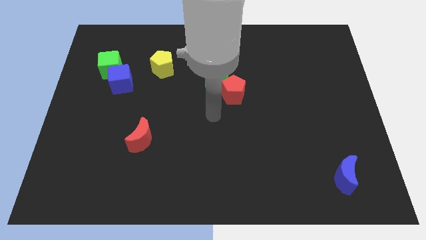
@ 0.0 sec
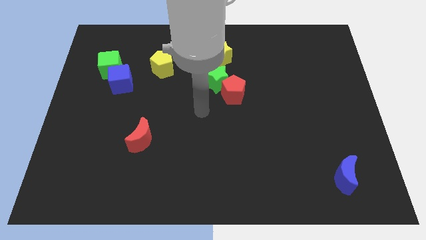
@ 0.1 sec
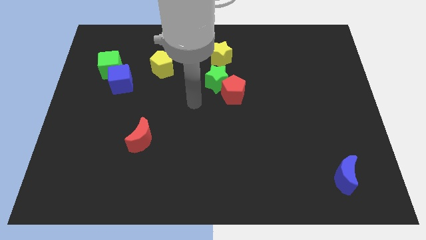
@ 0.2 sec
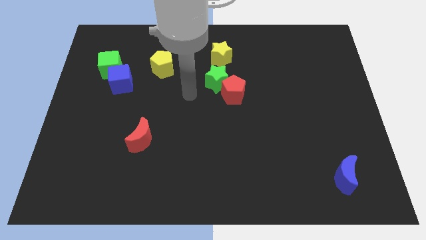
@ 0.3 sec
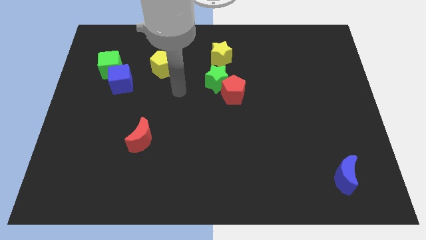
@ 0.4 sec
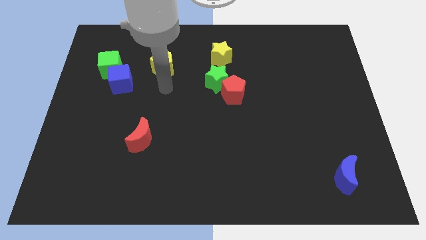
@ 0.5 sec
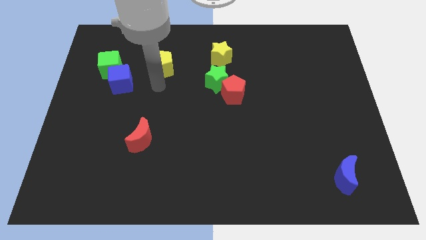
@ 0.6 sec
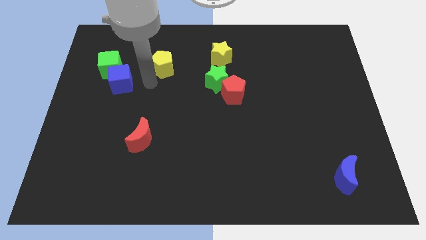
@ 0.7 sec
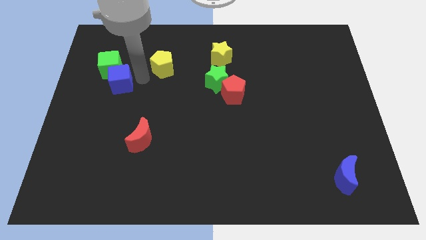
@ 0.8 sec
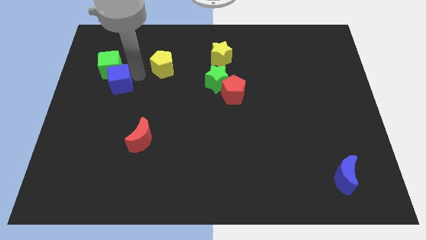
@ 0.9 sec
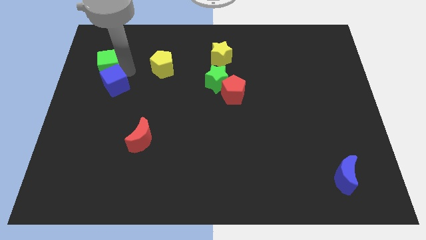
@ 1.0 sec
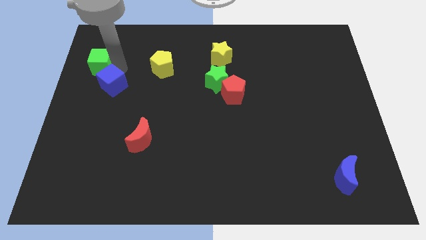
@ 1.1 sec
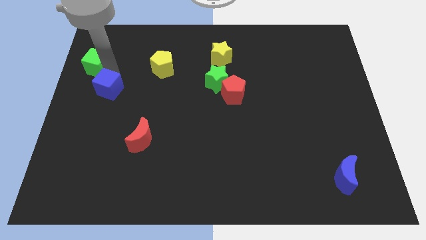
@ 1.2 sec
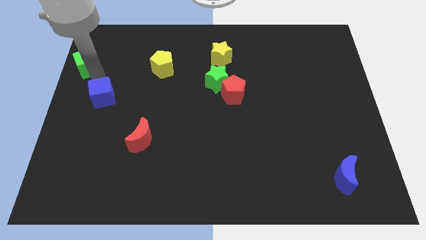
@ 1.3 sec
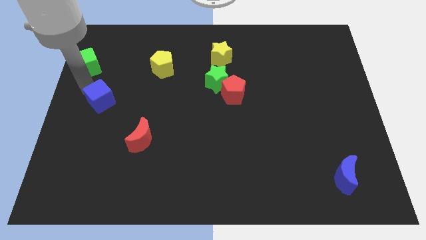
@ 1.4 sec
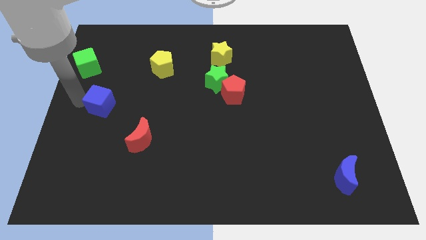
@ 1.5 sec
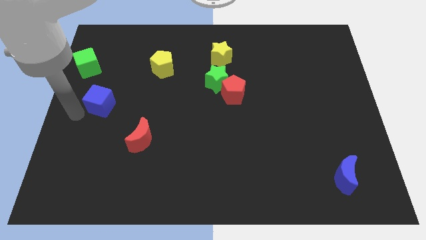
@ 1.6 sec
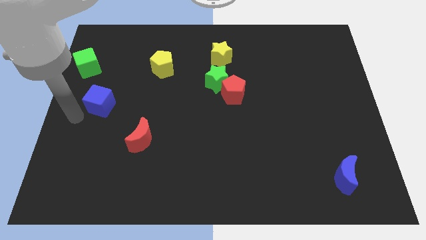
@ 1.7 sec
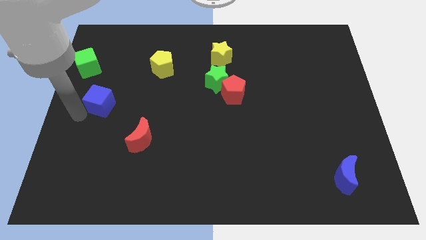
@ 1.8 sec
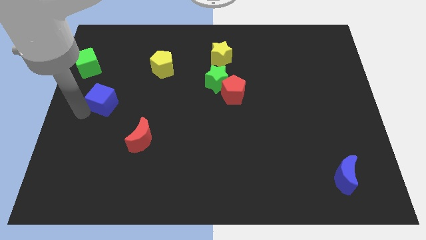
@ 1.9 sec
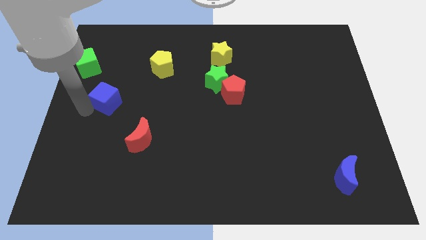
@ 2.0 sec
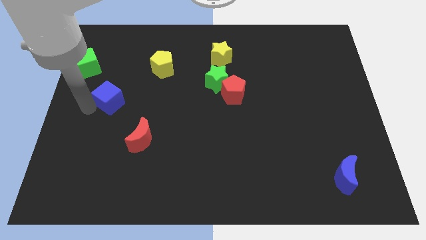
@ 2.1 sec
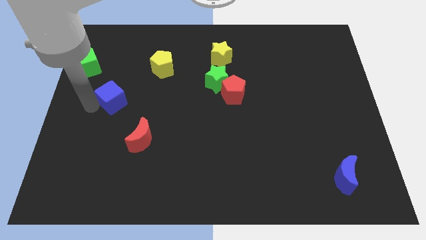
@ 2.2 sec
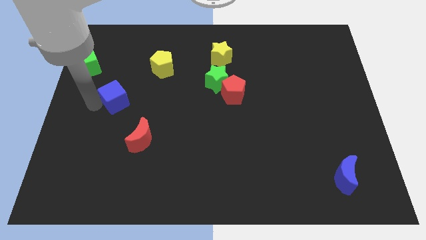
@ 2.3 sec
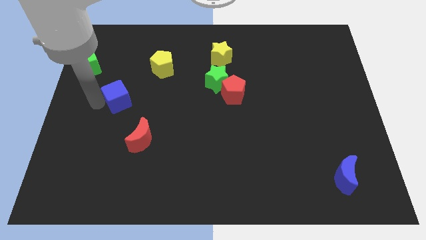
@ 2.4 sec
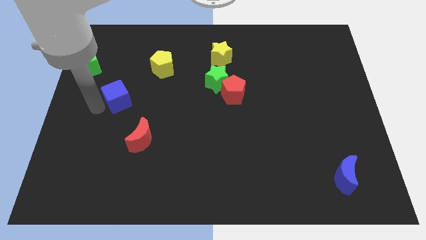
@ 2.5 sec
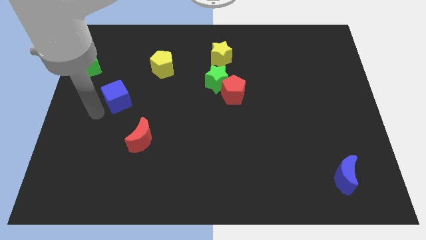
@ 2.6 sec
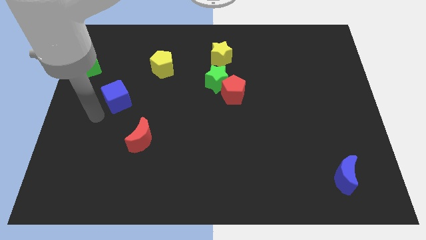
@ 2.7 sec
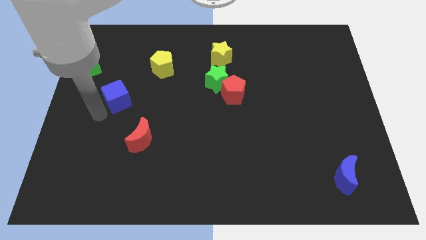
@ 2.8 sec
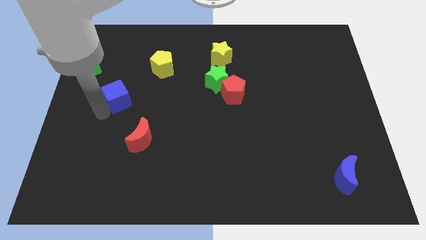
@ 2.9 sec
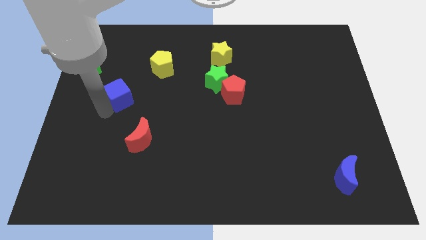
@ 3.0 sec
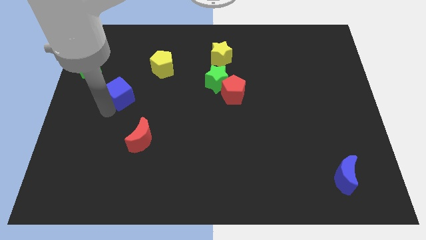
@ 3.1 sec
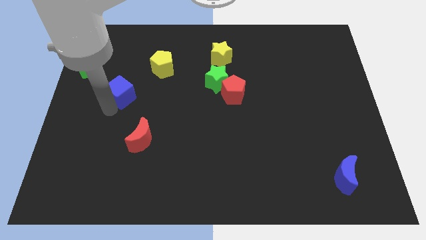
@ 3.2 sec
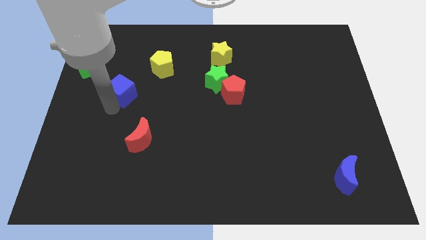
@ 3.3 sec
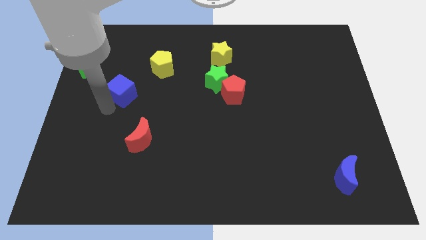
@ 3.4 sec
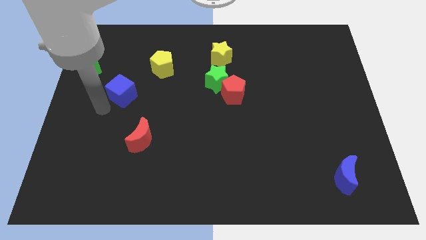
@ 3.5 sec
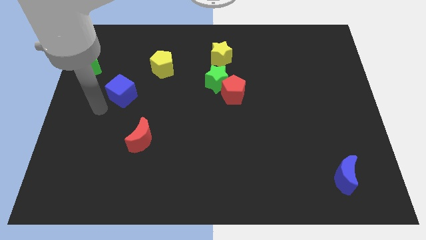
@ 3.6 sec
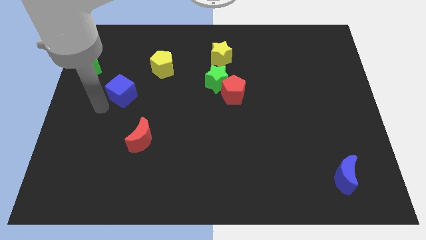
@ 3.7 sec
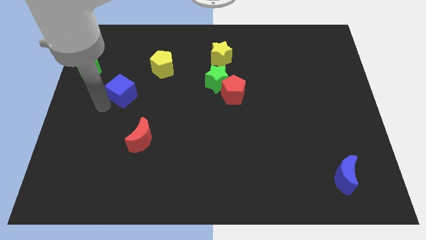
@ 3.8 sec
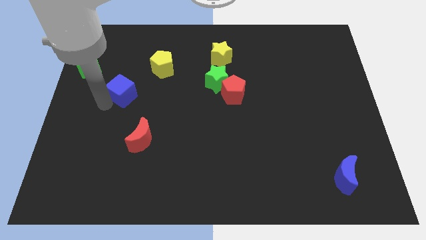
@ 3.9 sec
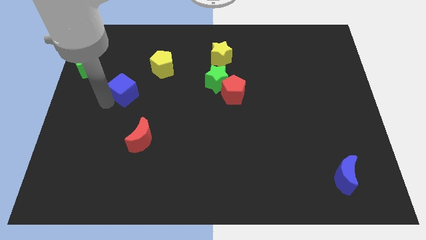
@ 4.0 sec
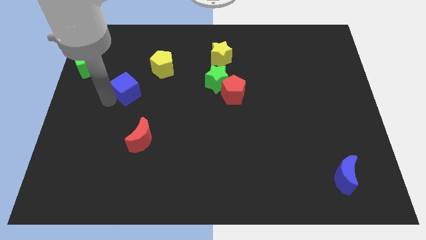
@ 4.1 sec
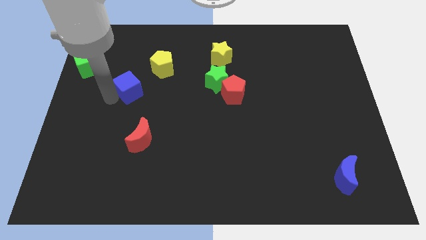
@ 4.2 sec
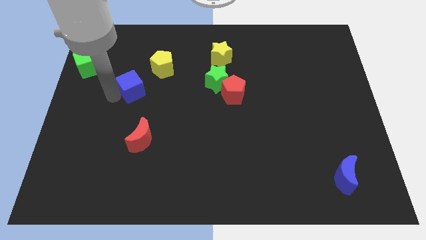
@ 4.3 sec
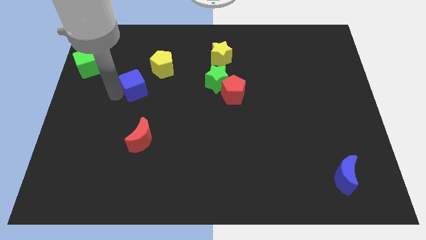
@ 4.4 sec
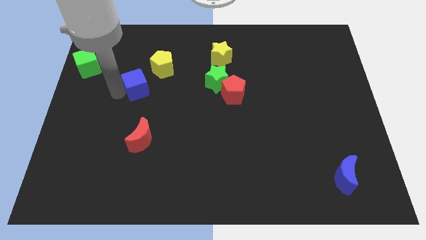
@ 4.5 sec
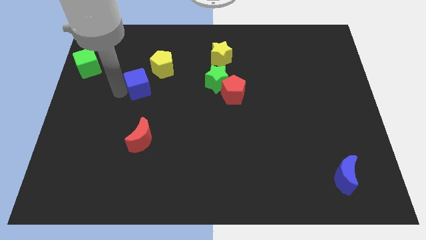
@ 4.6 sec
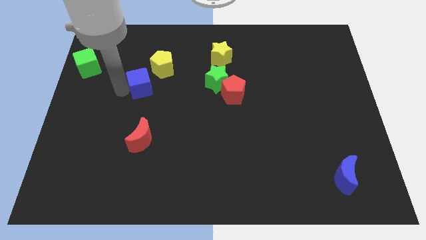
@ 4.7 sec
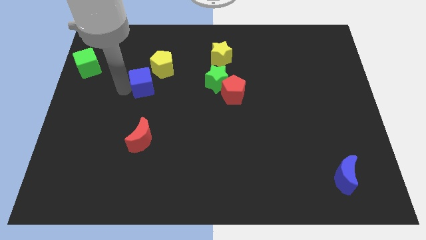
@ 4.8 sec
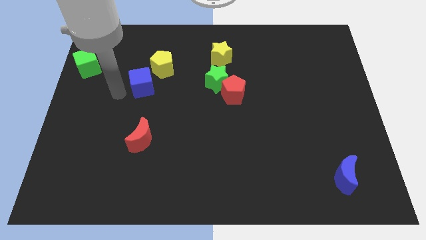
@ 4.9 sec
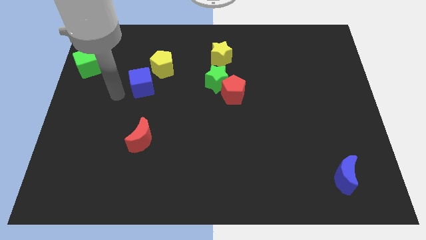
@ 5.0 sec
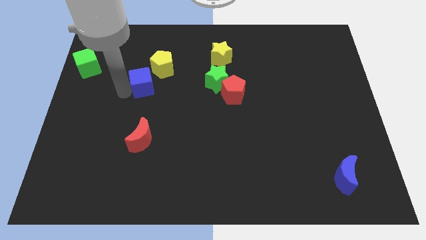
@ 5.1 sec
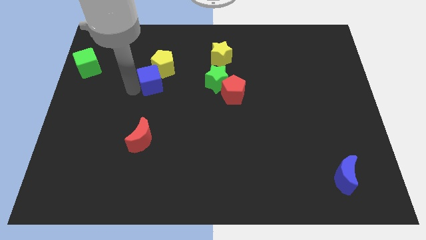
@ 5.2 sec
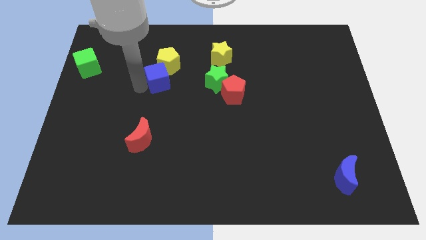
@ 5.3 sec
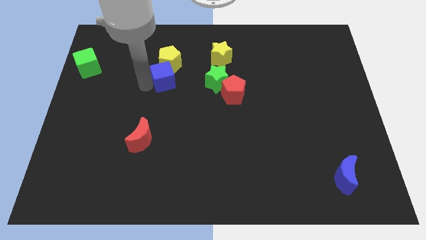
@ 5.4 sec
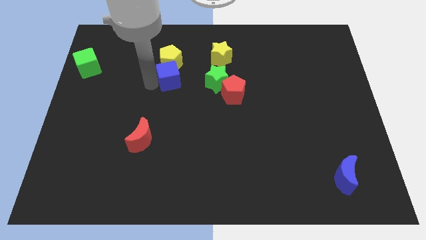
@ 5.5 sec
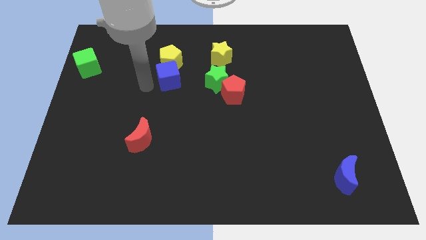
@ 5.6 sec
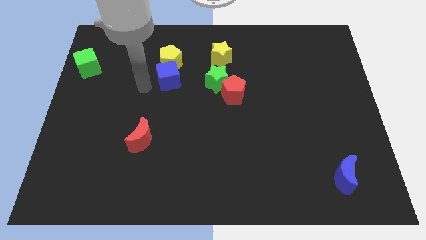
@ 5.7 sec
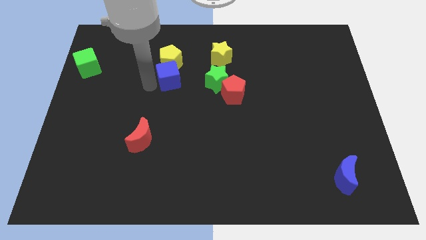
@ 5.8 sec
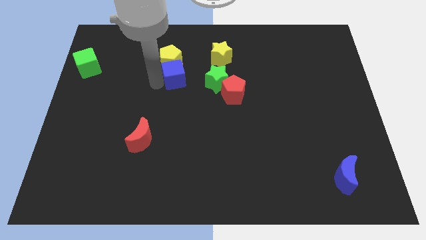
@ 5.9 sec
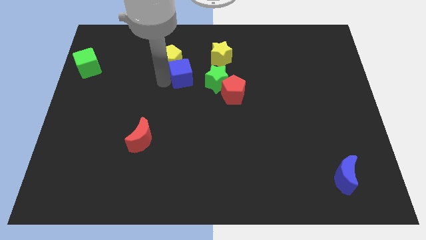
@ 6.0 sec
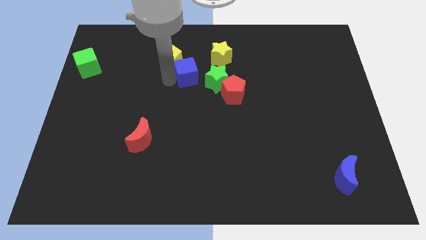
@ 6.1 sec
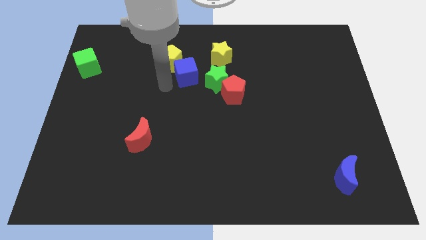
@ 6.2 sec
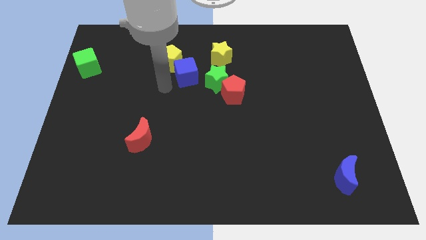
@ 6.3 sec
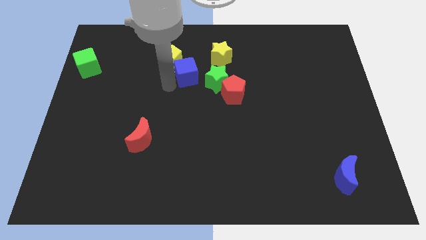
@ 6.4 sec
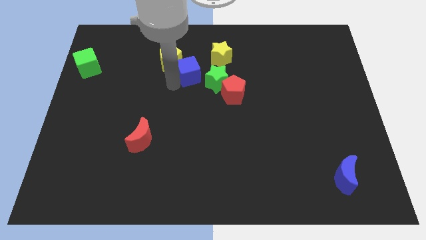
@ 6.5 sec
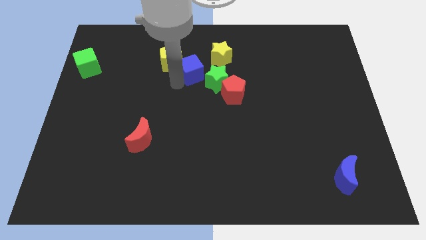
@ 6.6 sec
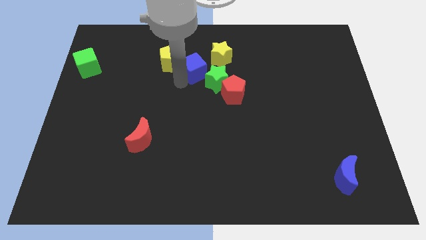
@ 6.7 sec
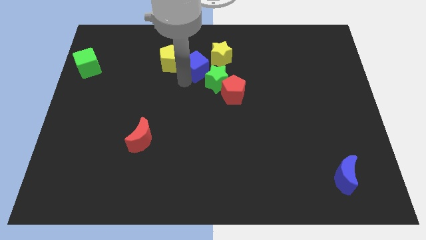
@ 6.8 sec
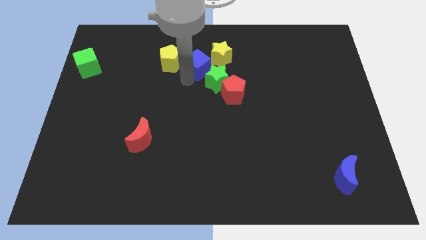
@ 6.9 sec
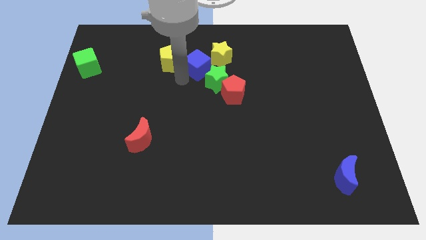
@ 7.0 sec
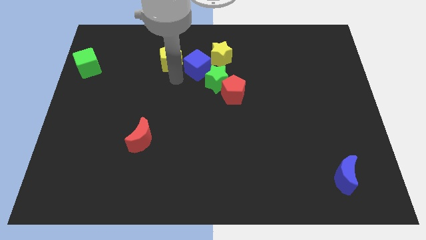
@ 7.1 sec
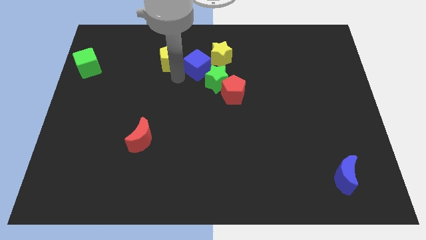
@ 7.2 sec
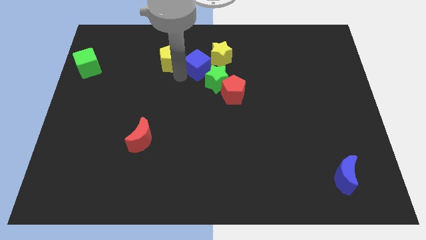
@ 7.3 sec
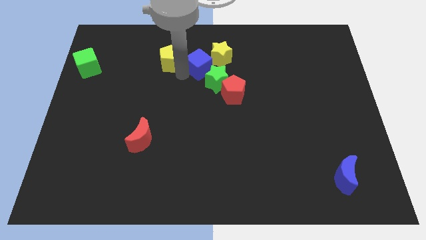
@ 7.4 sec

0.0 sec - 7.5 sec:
put the blue cube towards the yellow star
